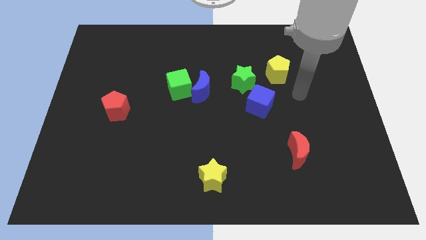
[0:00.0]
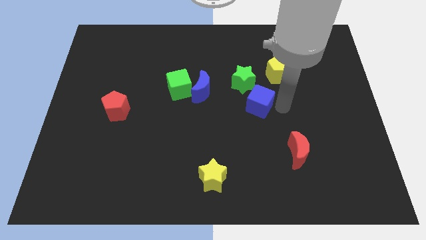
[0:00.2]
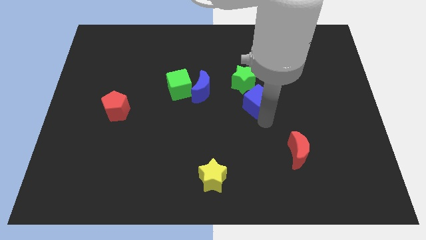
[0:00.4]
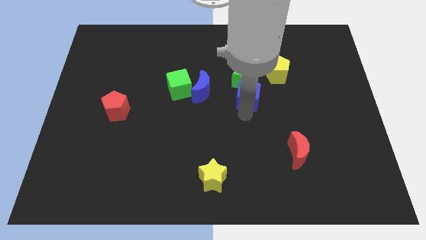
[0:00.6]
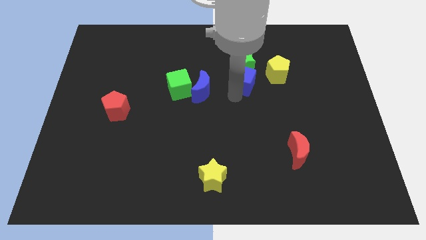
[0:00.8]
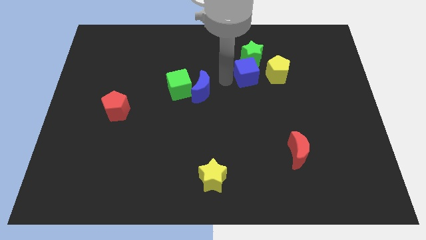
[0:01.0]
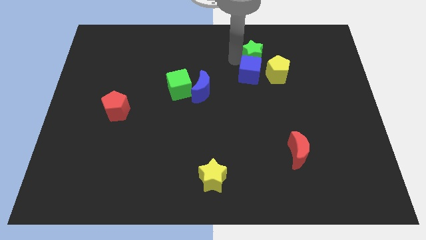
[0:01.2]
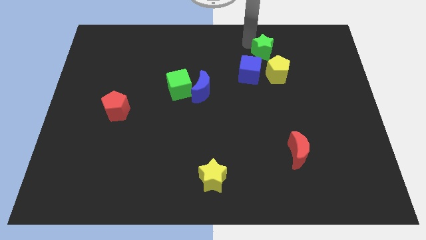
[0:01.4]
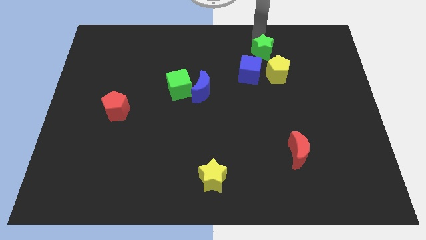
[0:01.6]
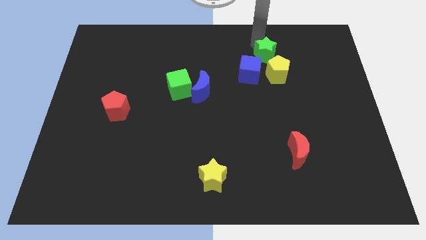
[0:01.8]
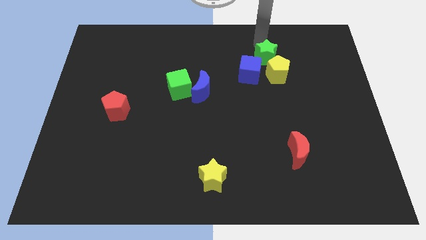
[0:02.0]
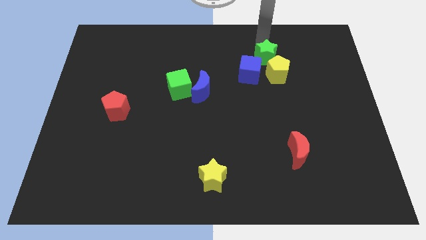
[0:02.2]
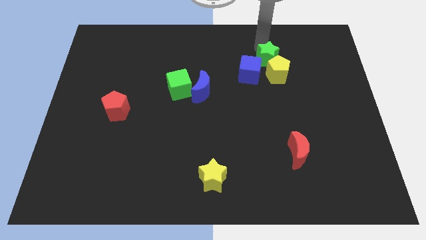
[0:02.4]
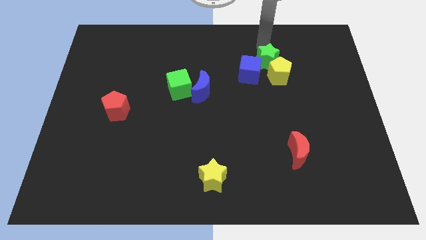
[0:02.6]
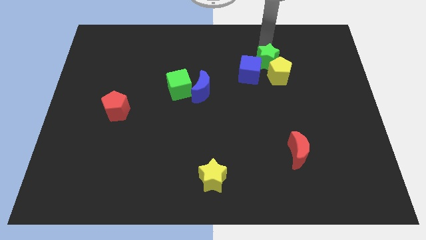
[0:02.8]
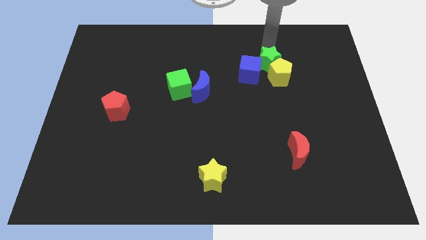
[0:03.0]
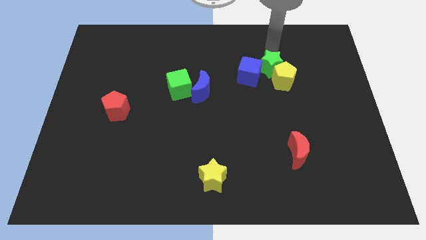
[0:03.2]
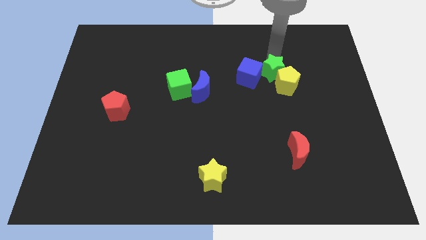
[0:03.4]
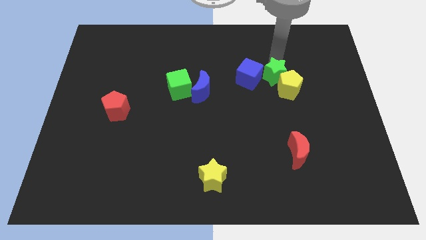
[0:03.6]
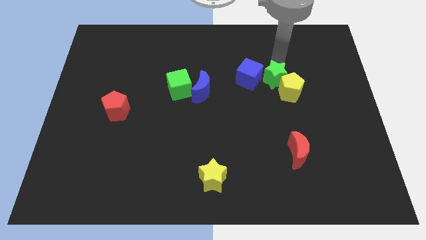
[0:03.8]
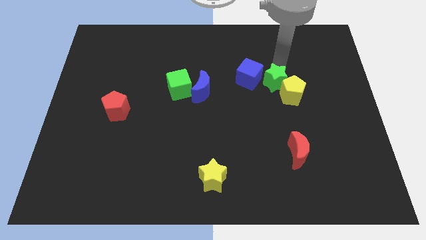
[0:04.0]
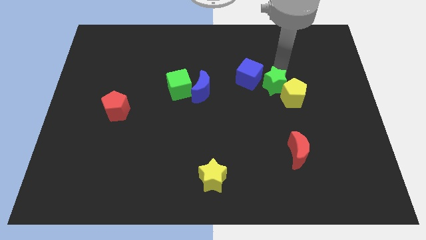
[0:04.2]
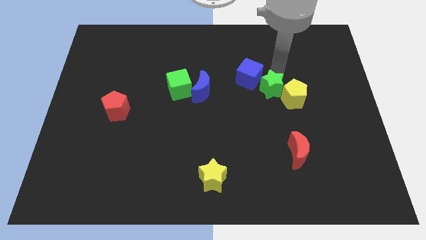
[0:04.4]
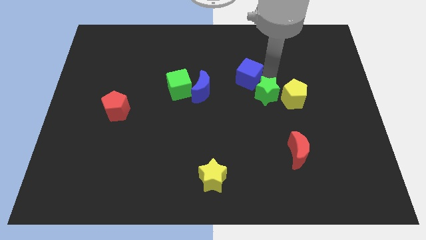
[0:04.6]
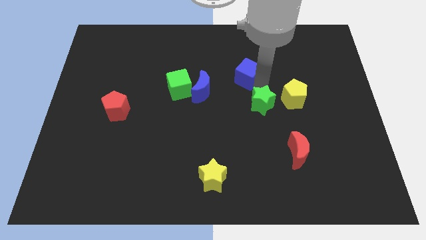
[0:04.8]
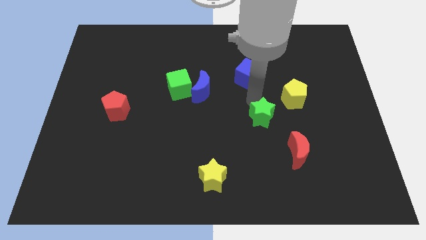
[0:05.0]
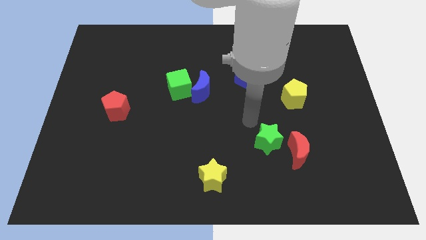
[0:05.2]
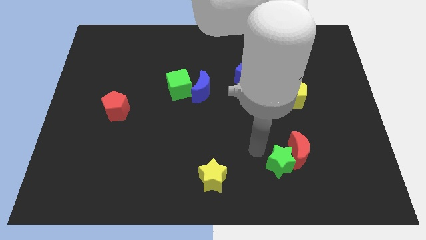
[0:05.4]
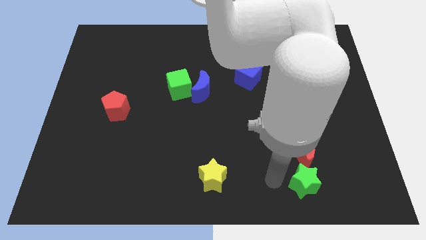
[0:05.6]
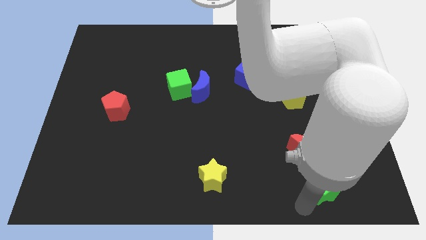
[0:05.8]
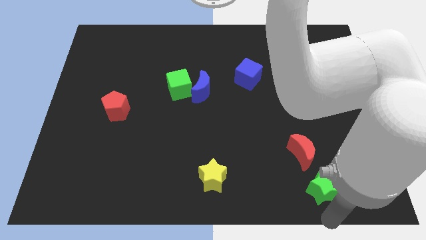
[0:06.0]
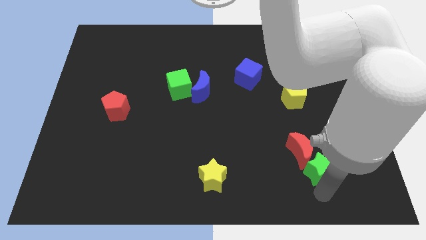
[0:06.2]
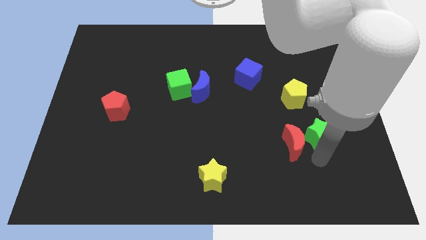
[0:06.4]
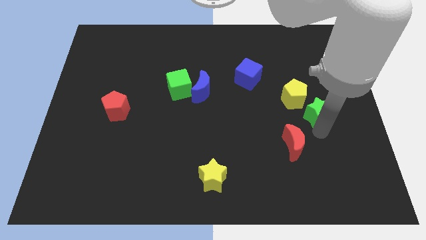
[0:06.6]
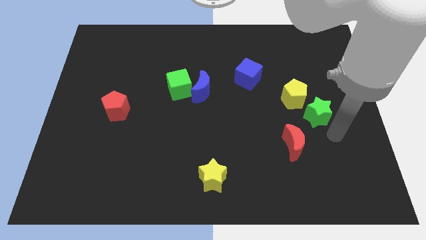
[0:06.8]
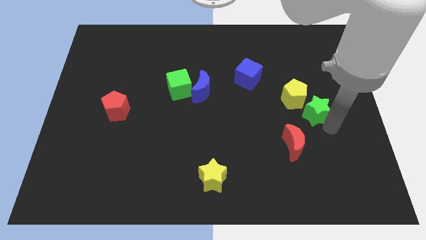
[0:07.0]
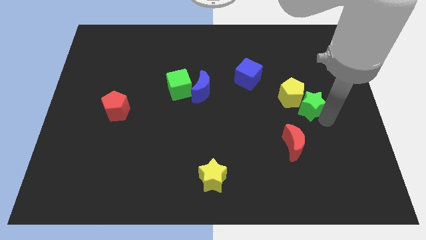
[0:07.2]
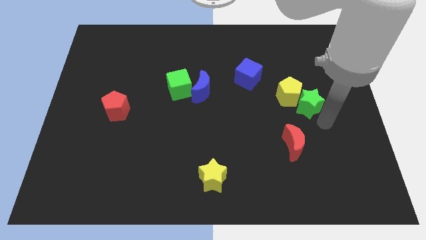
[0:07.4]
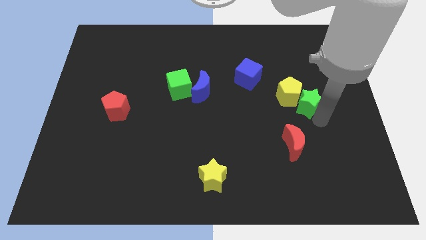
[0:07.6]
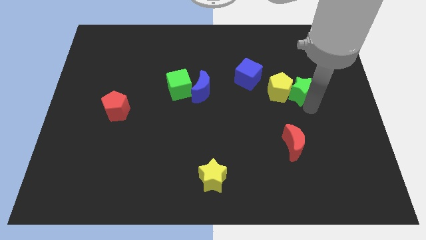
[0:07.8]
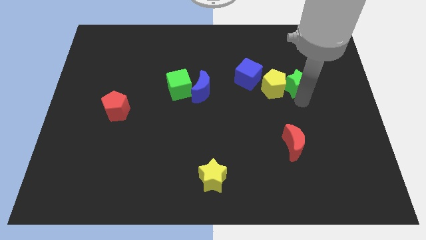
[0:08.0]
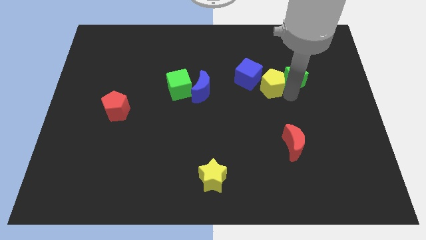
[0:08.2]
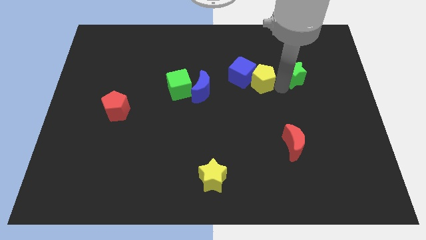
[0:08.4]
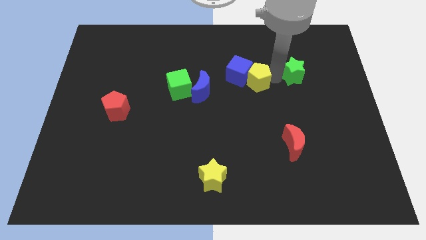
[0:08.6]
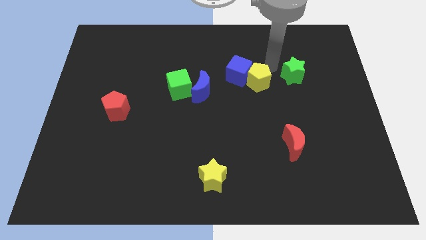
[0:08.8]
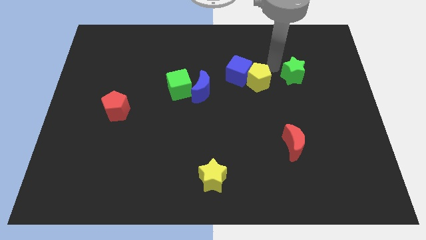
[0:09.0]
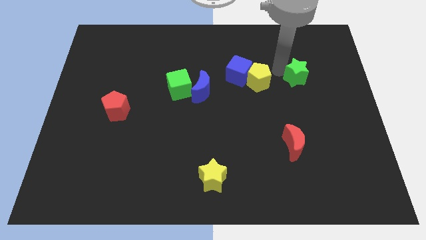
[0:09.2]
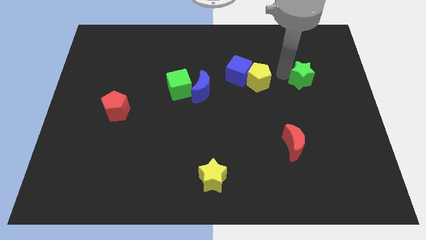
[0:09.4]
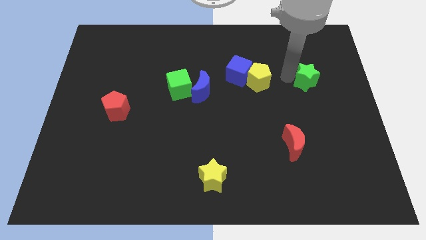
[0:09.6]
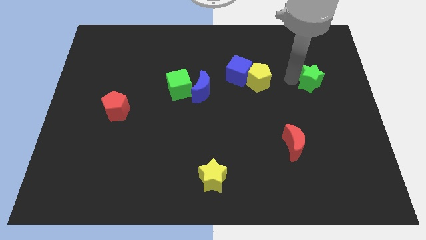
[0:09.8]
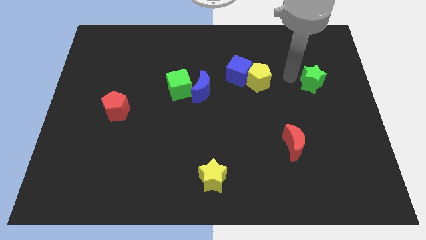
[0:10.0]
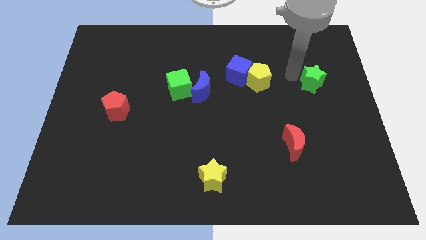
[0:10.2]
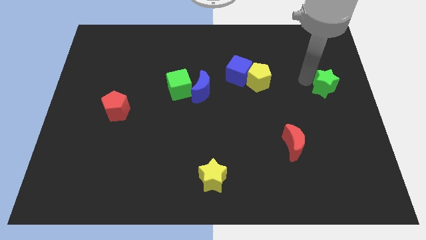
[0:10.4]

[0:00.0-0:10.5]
slide the green star to the center right
